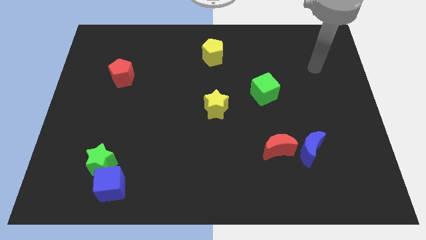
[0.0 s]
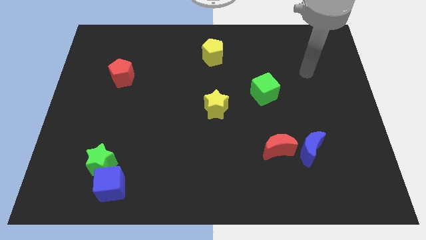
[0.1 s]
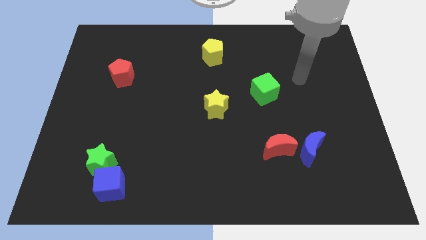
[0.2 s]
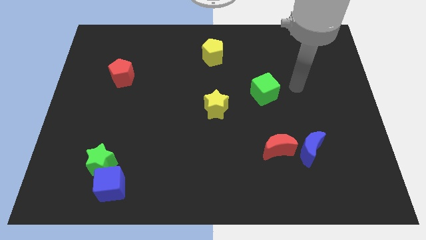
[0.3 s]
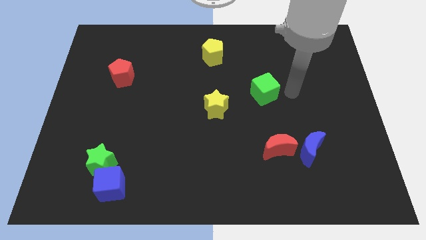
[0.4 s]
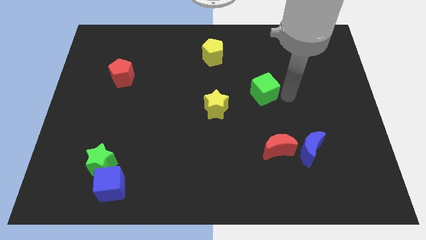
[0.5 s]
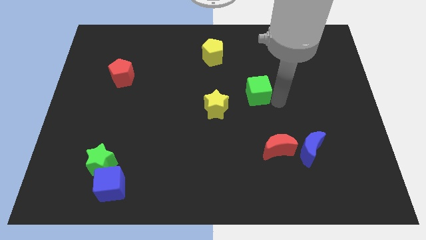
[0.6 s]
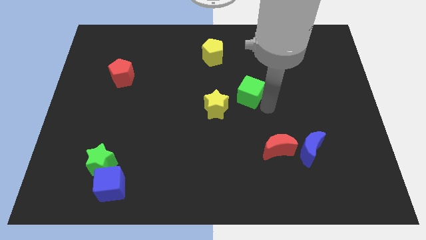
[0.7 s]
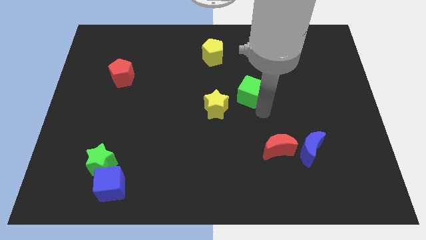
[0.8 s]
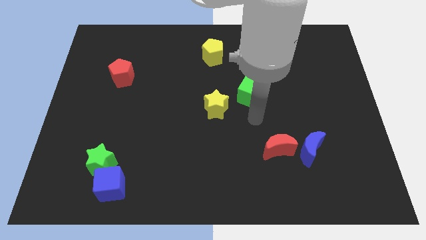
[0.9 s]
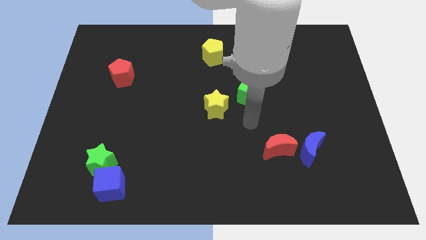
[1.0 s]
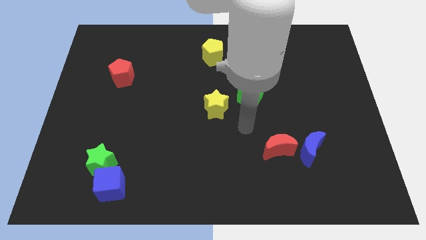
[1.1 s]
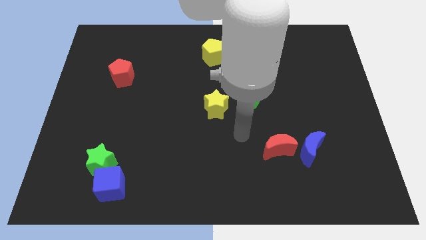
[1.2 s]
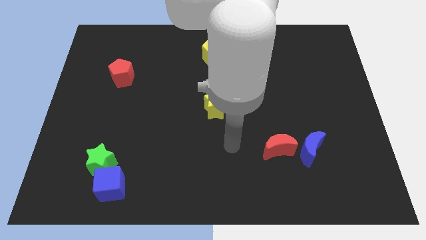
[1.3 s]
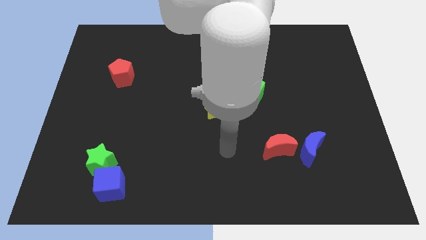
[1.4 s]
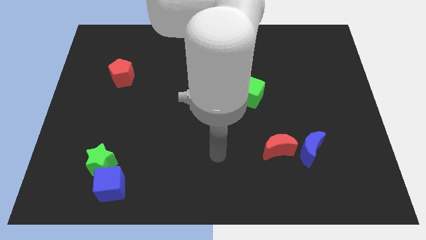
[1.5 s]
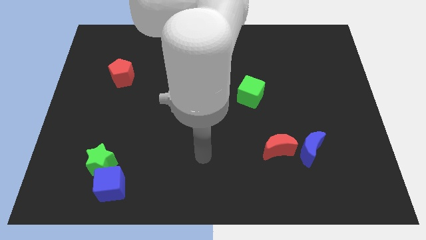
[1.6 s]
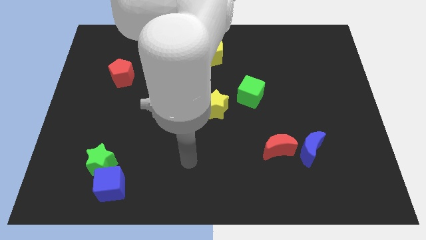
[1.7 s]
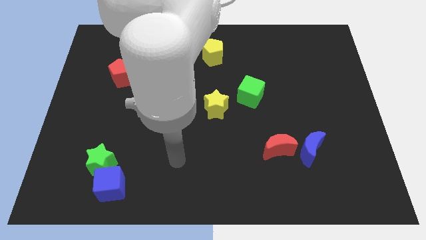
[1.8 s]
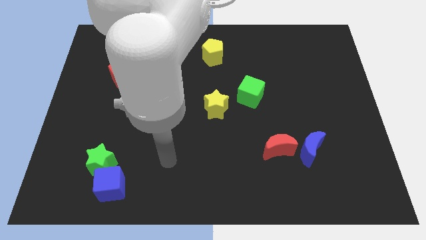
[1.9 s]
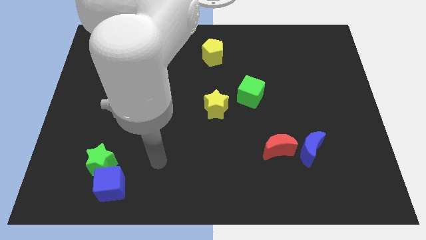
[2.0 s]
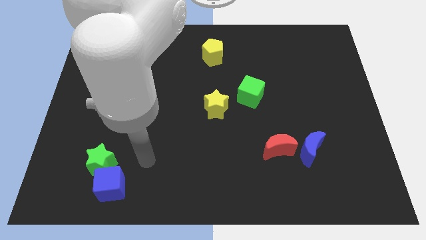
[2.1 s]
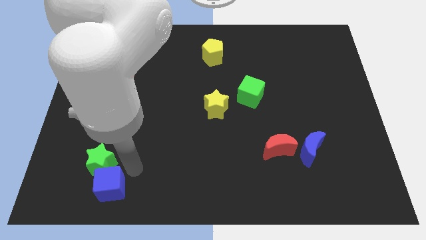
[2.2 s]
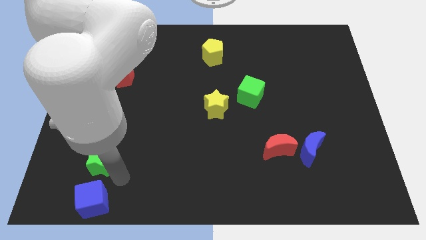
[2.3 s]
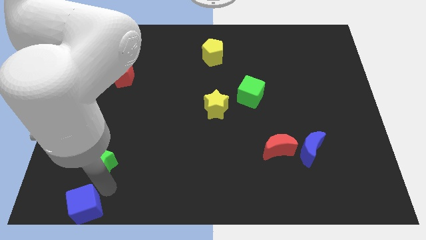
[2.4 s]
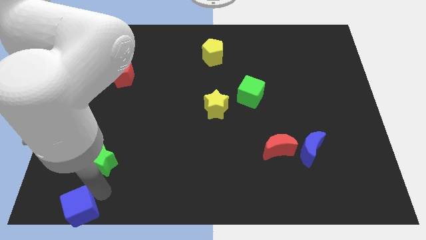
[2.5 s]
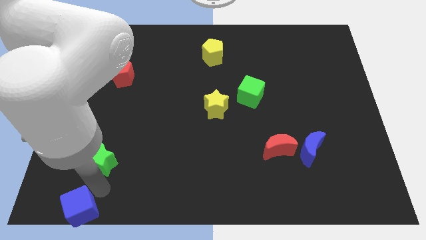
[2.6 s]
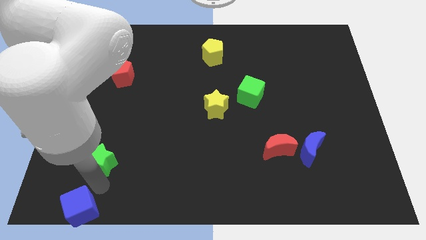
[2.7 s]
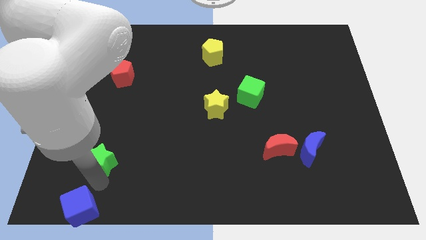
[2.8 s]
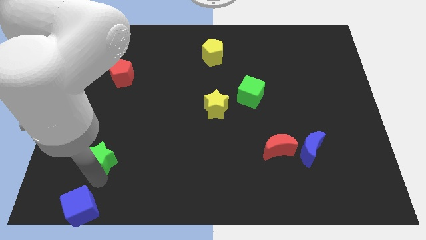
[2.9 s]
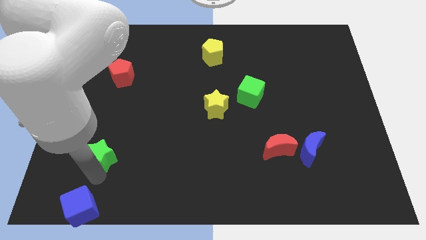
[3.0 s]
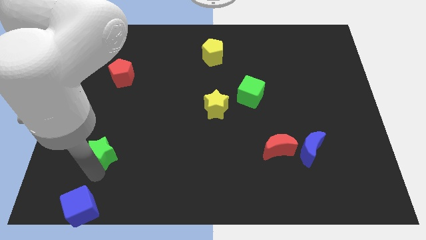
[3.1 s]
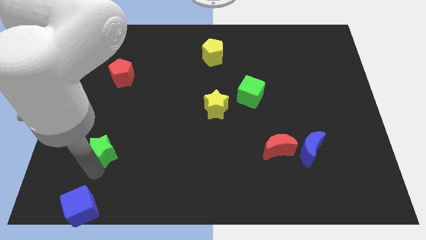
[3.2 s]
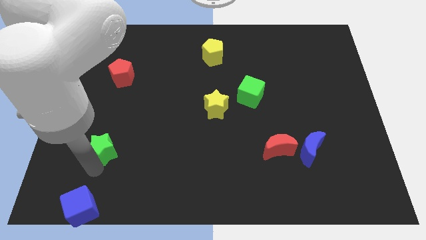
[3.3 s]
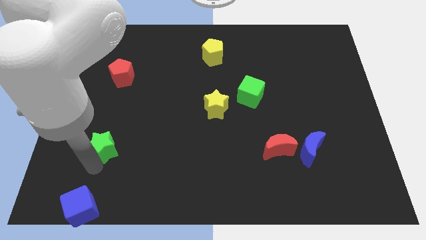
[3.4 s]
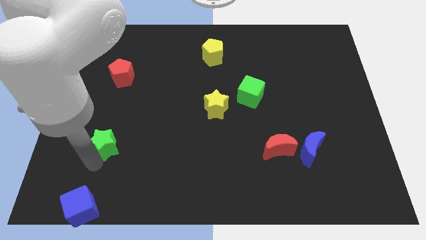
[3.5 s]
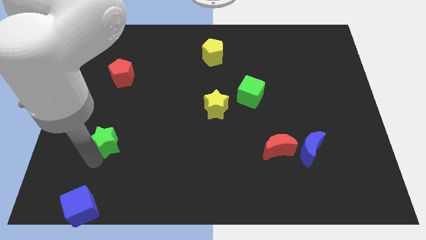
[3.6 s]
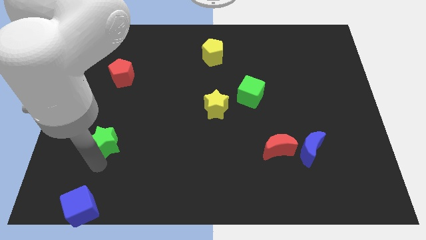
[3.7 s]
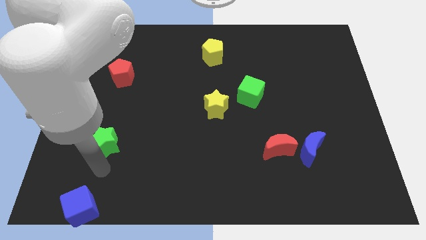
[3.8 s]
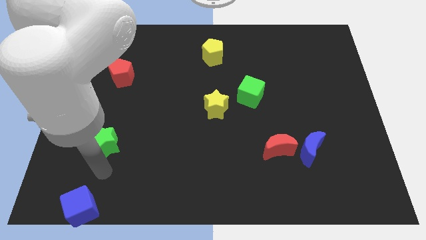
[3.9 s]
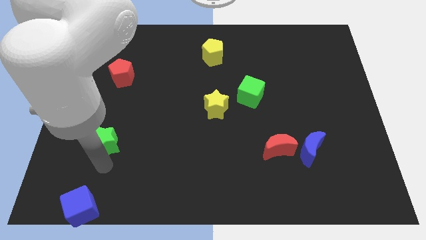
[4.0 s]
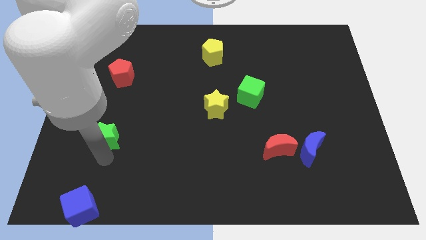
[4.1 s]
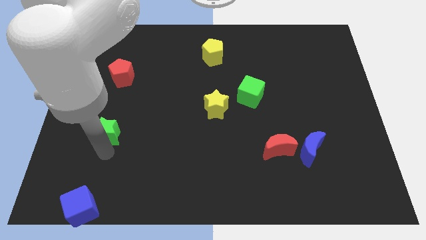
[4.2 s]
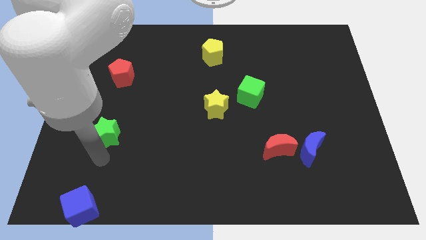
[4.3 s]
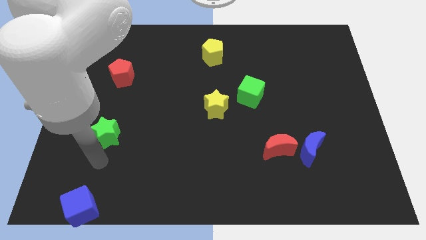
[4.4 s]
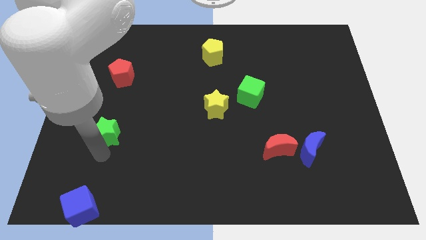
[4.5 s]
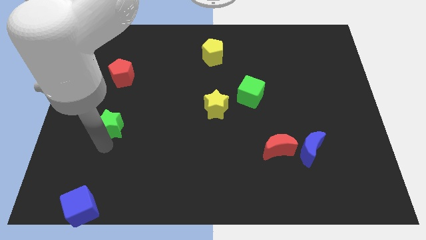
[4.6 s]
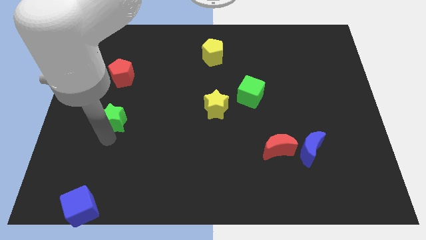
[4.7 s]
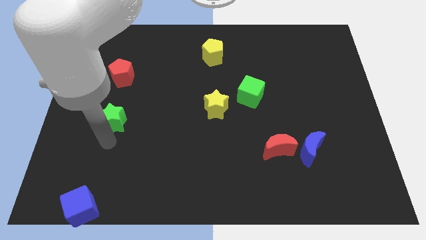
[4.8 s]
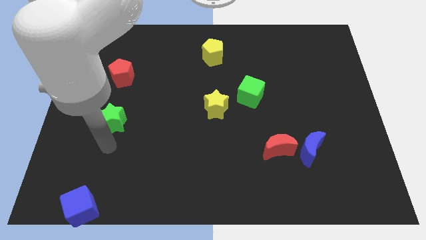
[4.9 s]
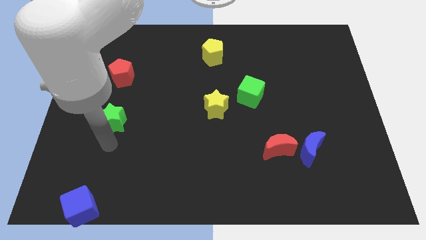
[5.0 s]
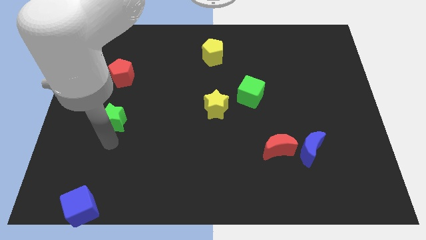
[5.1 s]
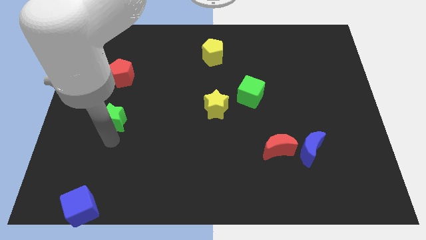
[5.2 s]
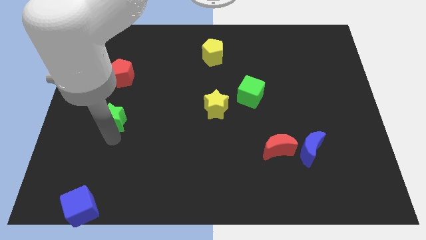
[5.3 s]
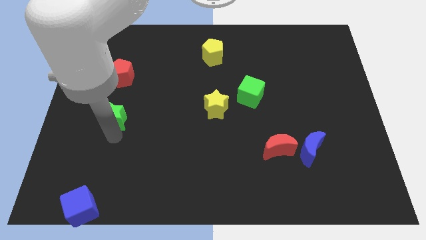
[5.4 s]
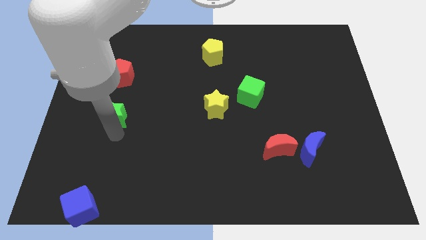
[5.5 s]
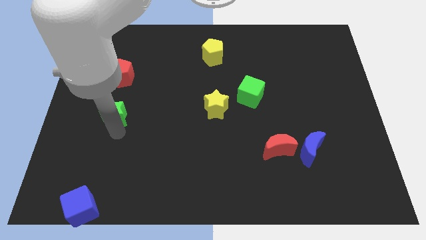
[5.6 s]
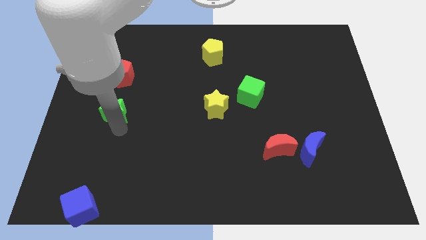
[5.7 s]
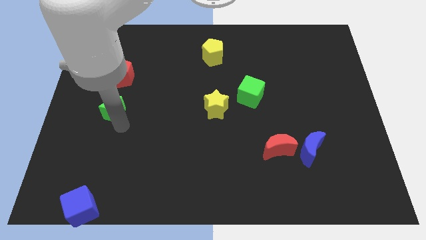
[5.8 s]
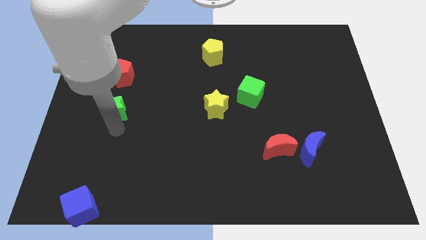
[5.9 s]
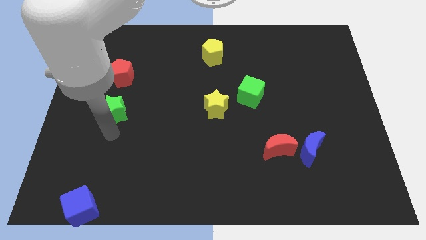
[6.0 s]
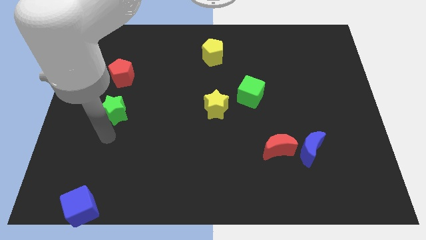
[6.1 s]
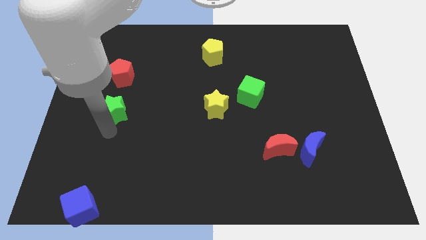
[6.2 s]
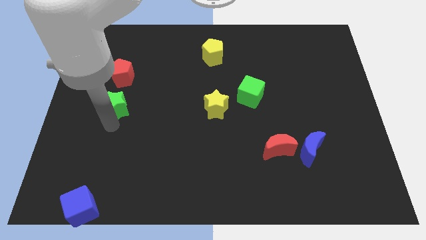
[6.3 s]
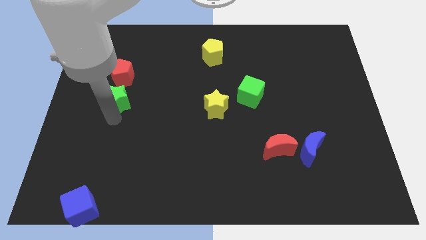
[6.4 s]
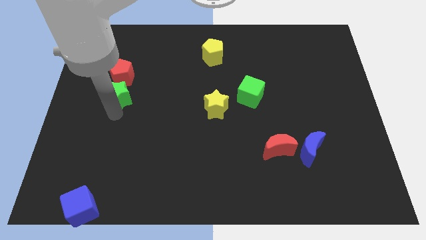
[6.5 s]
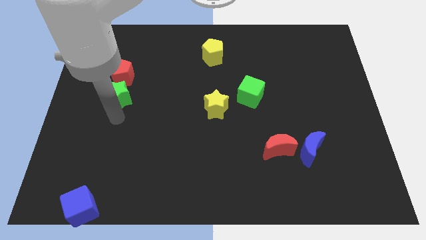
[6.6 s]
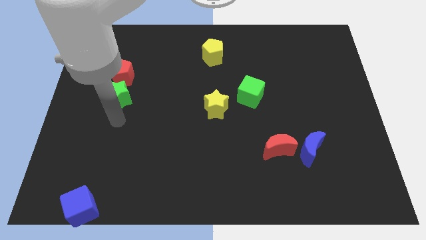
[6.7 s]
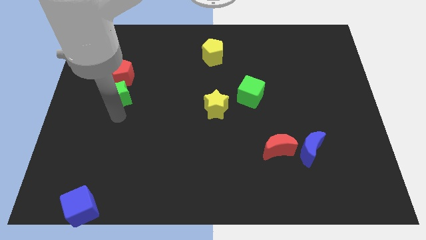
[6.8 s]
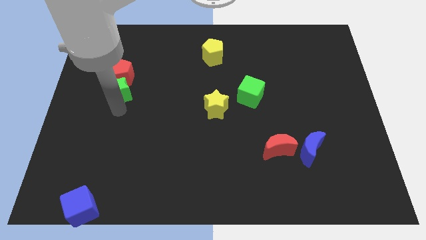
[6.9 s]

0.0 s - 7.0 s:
push the green star to the red pentagon
